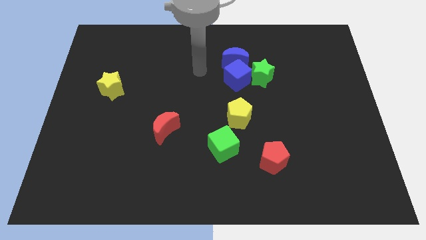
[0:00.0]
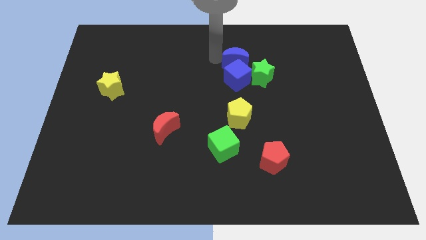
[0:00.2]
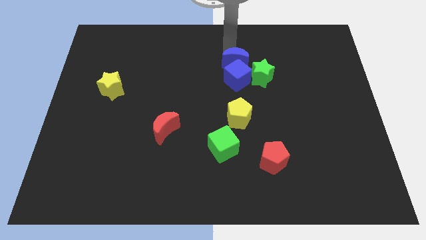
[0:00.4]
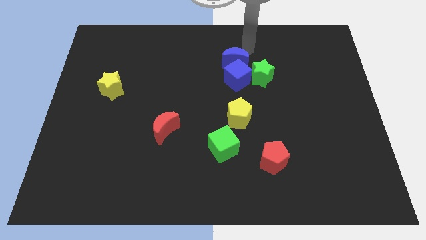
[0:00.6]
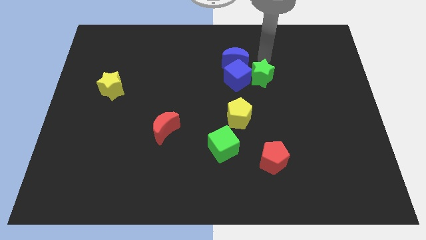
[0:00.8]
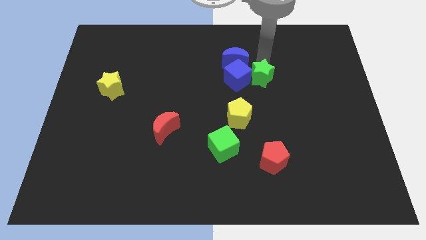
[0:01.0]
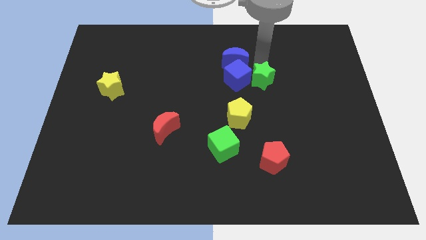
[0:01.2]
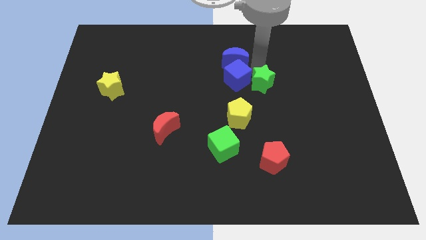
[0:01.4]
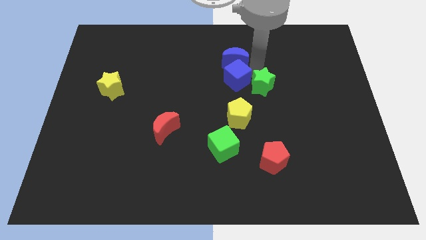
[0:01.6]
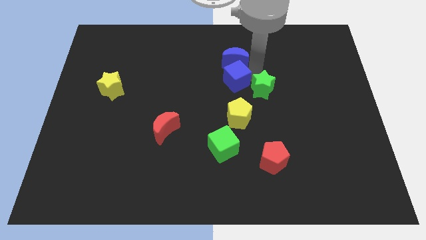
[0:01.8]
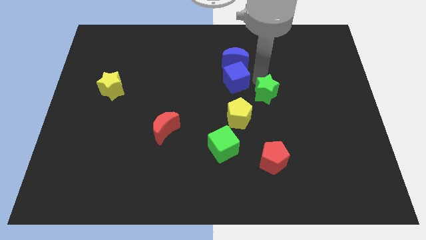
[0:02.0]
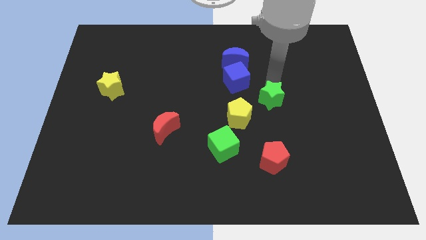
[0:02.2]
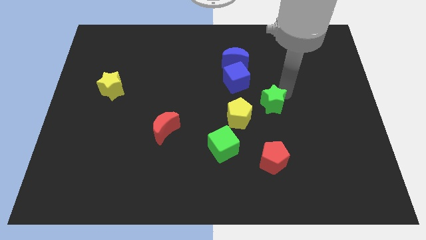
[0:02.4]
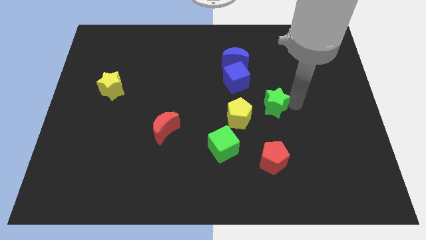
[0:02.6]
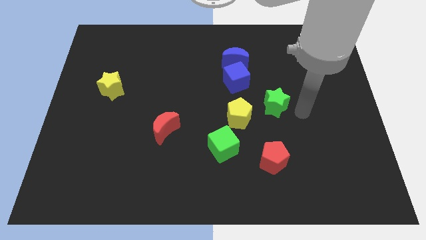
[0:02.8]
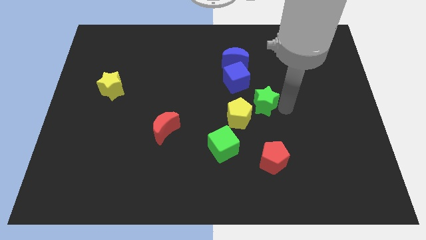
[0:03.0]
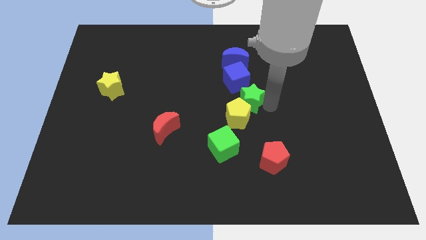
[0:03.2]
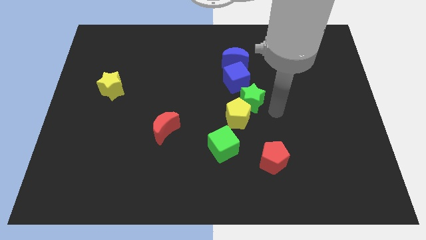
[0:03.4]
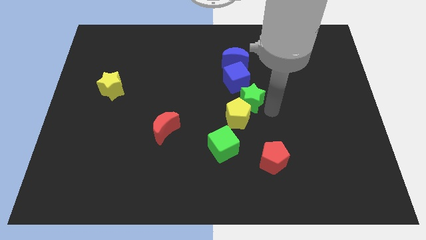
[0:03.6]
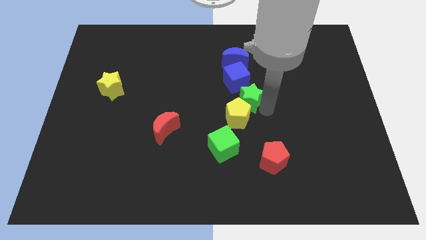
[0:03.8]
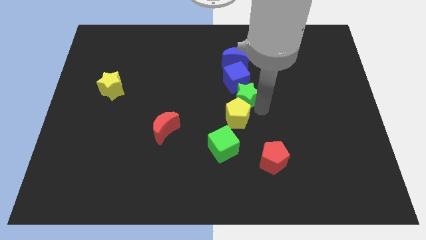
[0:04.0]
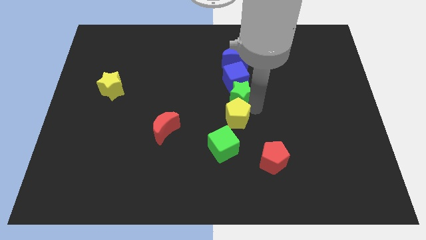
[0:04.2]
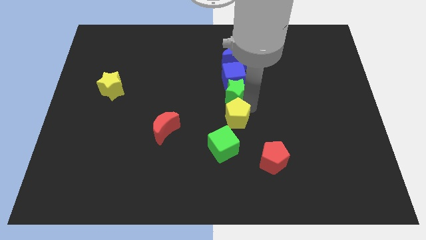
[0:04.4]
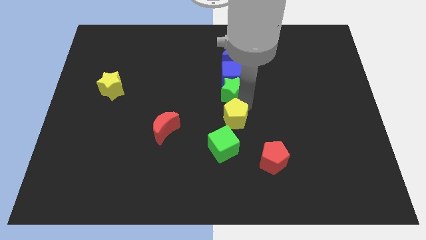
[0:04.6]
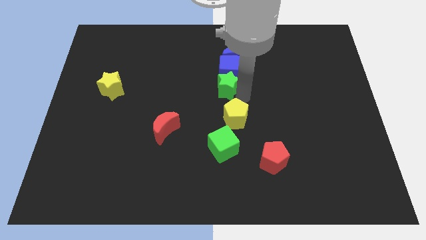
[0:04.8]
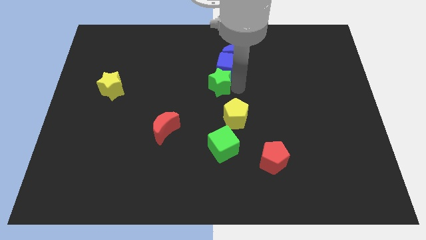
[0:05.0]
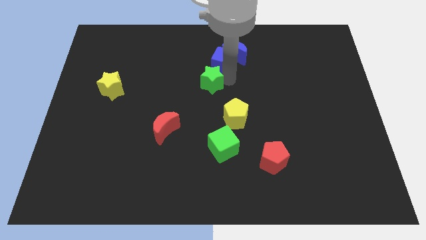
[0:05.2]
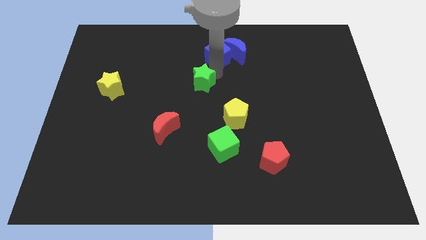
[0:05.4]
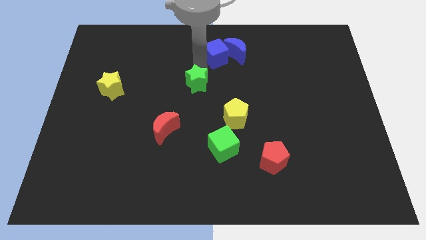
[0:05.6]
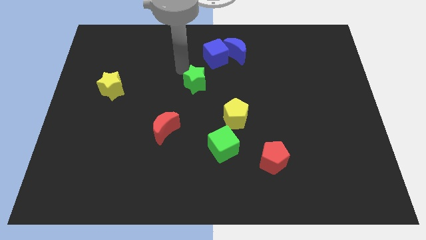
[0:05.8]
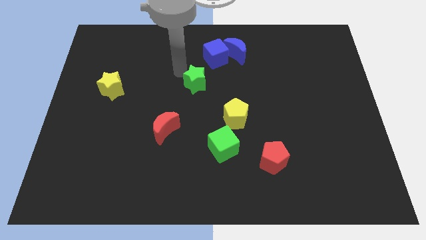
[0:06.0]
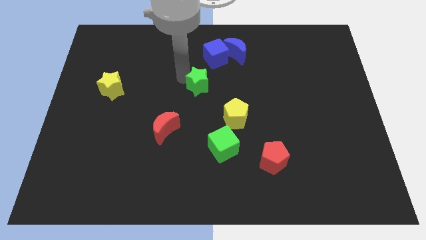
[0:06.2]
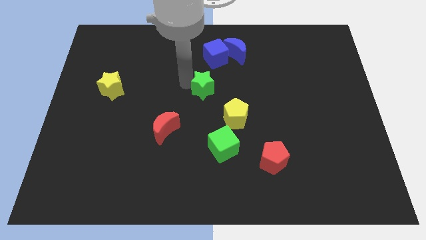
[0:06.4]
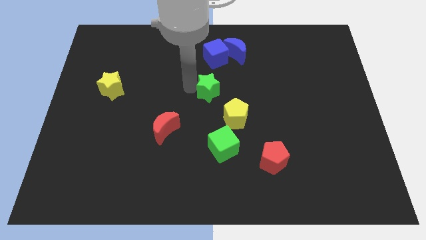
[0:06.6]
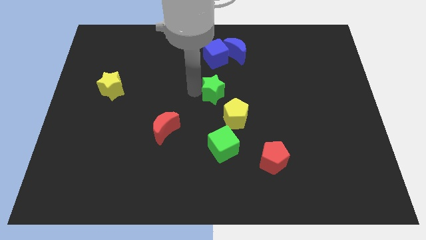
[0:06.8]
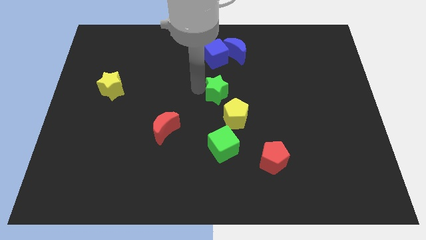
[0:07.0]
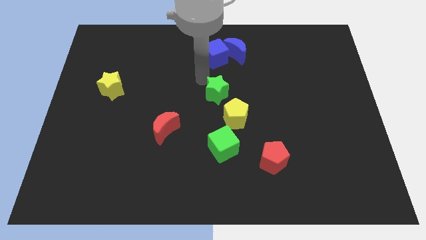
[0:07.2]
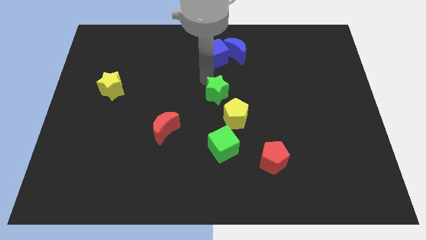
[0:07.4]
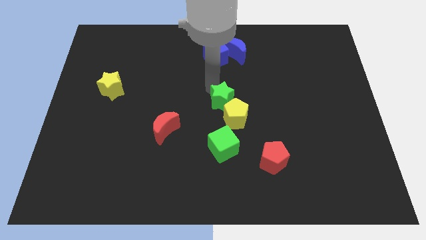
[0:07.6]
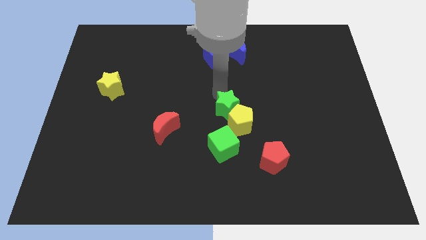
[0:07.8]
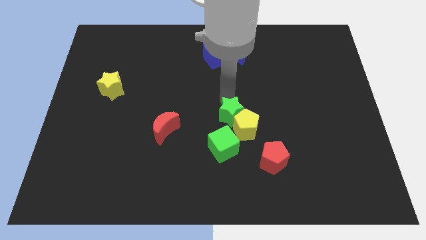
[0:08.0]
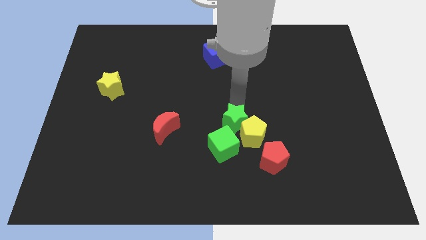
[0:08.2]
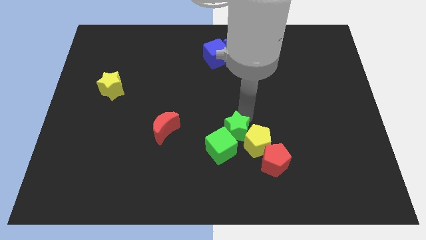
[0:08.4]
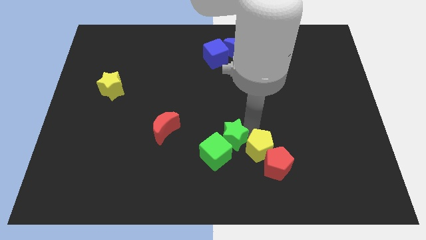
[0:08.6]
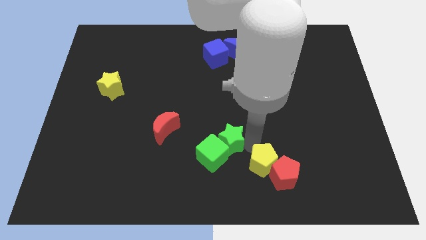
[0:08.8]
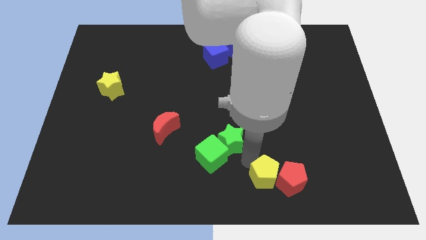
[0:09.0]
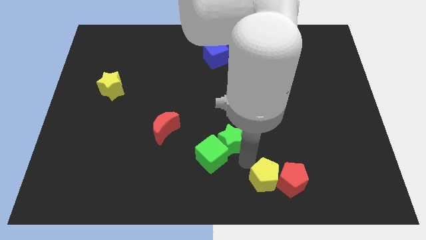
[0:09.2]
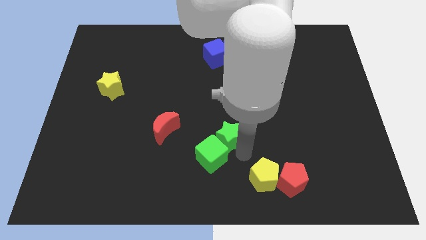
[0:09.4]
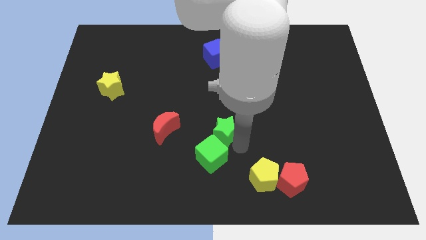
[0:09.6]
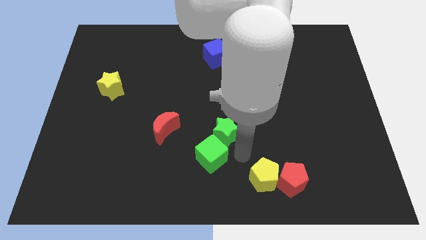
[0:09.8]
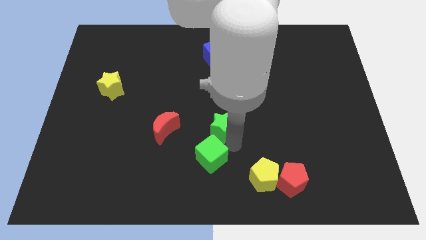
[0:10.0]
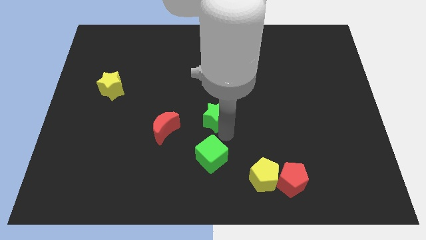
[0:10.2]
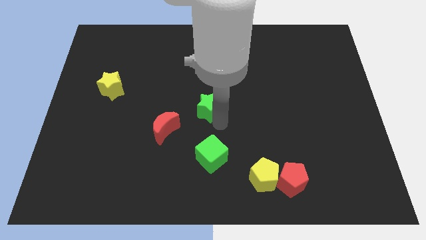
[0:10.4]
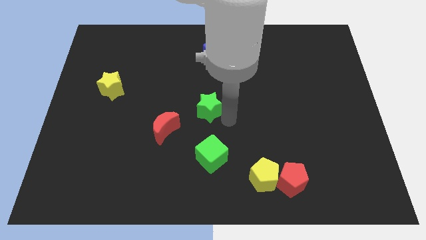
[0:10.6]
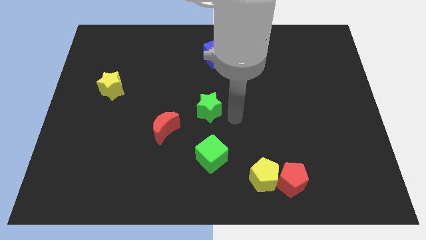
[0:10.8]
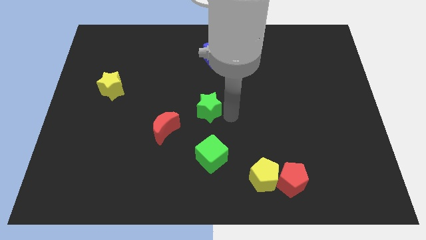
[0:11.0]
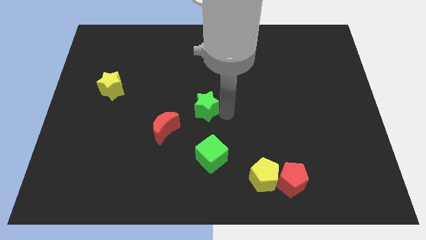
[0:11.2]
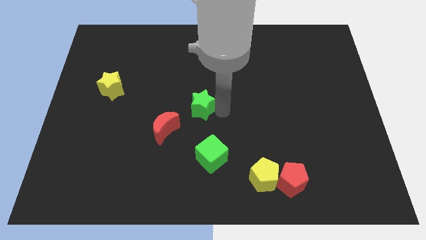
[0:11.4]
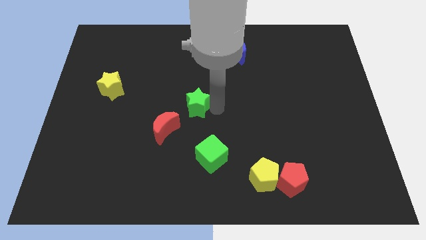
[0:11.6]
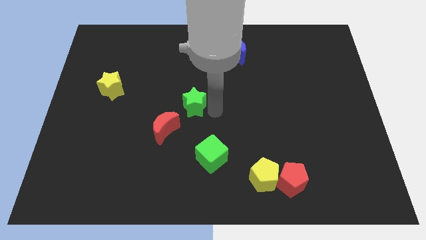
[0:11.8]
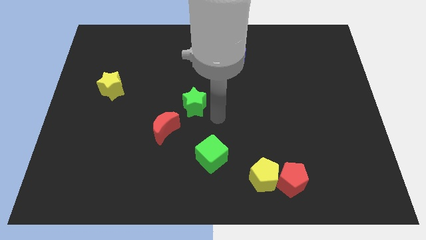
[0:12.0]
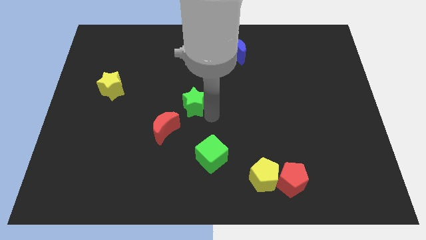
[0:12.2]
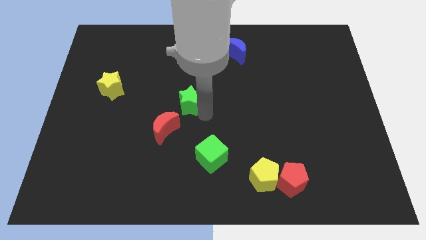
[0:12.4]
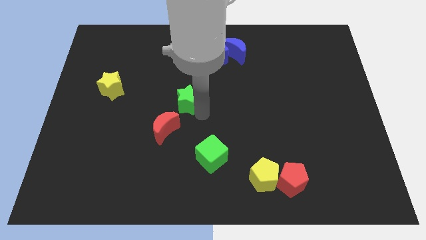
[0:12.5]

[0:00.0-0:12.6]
slide the green star to the top side of the red moon
